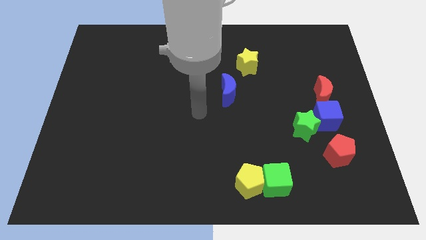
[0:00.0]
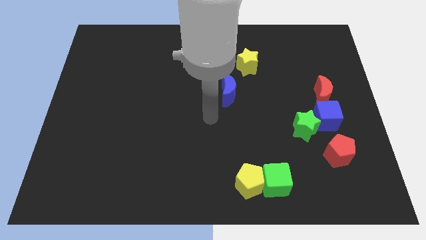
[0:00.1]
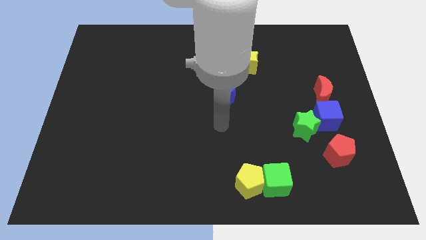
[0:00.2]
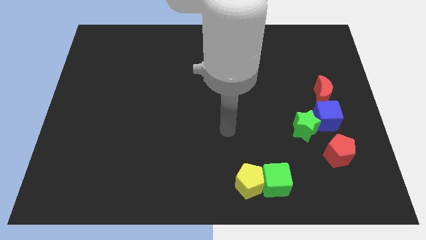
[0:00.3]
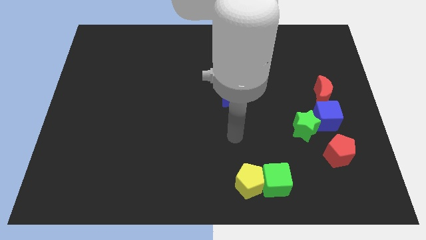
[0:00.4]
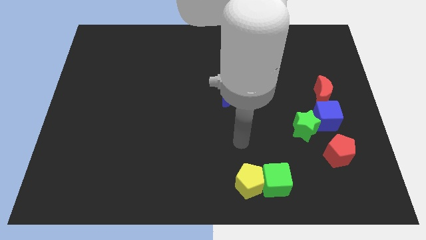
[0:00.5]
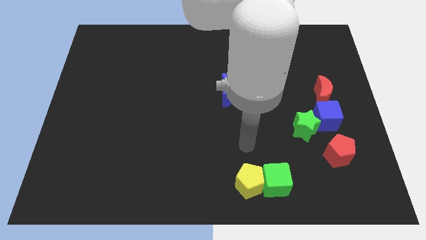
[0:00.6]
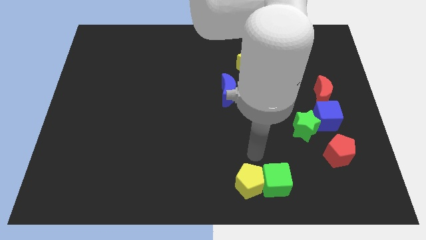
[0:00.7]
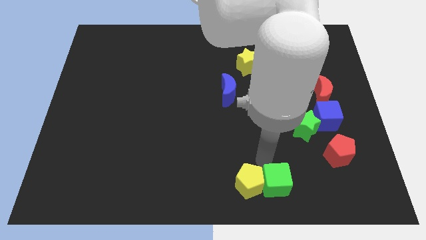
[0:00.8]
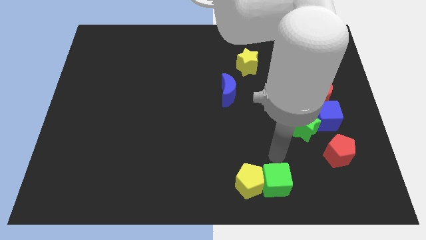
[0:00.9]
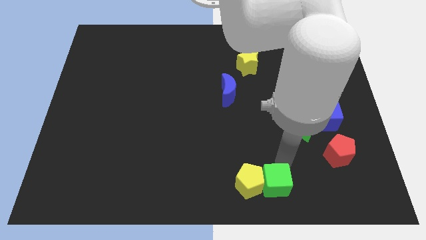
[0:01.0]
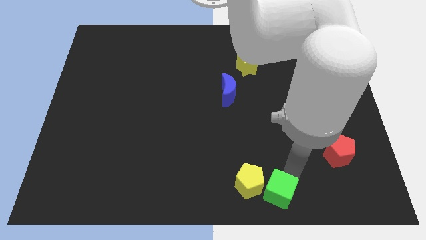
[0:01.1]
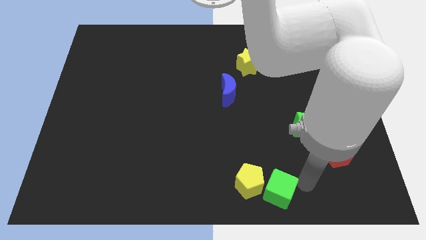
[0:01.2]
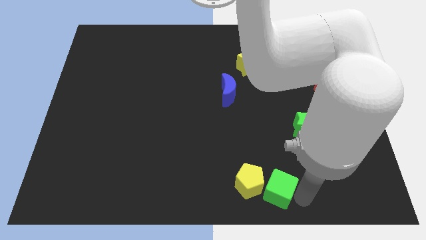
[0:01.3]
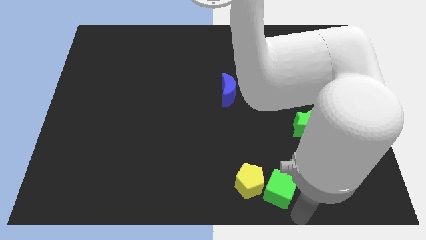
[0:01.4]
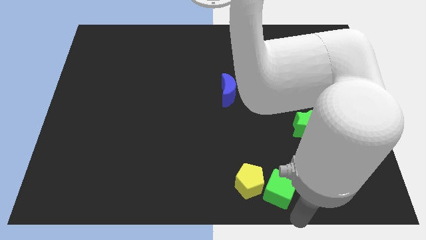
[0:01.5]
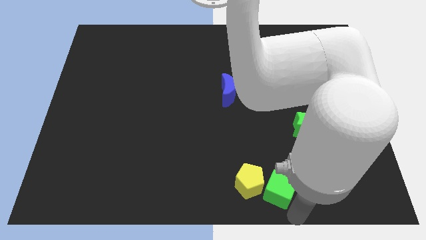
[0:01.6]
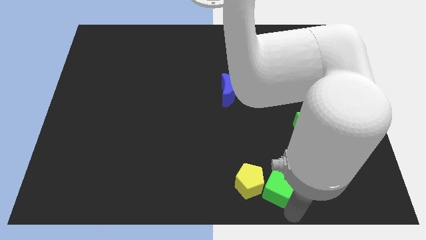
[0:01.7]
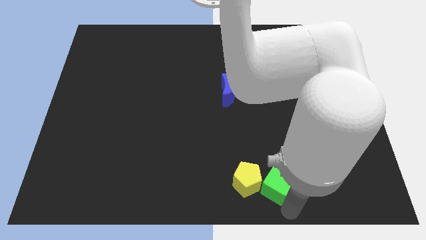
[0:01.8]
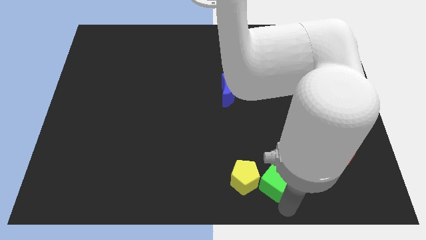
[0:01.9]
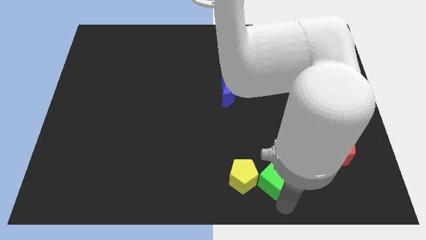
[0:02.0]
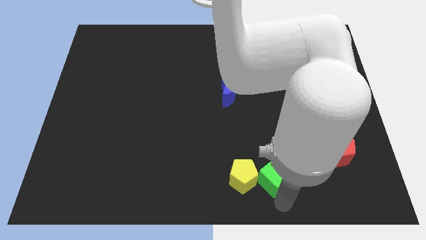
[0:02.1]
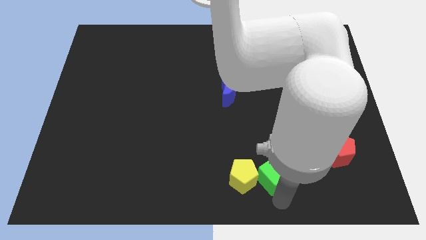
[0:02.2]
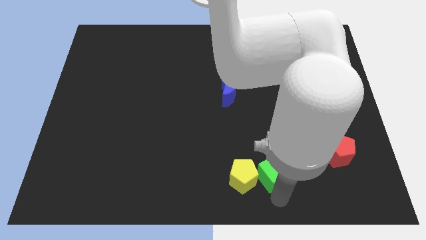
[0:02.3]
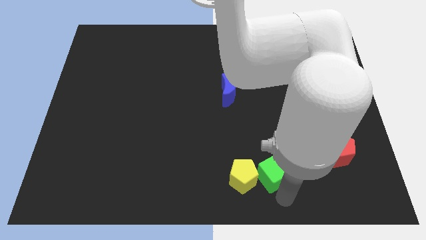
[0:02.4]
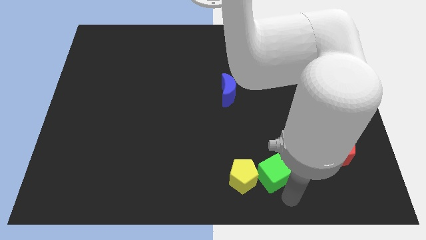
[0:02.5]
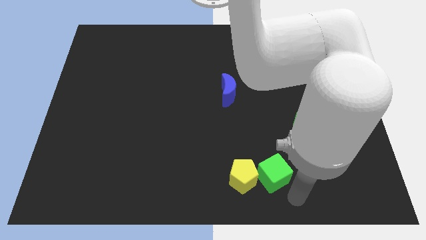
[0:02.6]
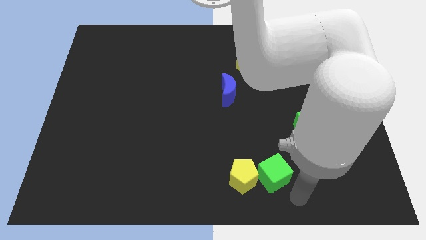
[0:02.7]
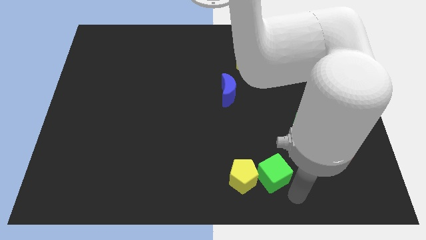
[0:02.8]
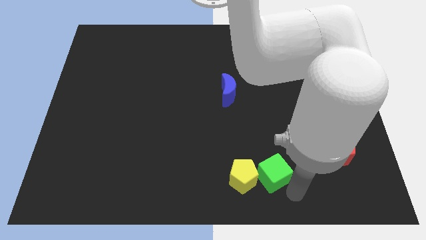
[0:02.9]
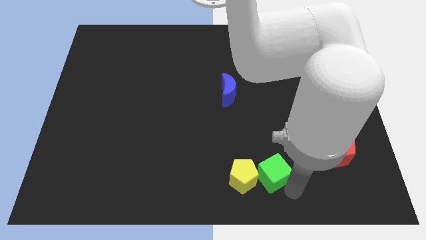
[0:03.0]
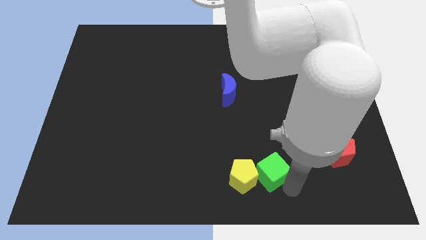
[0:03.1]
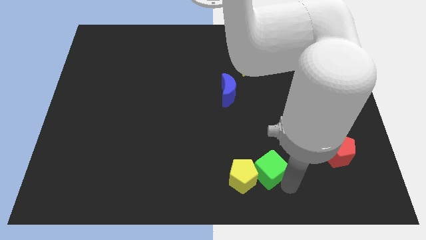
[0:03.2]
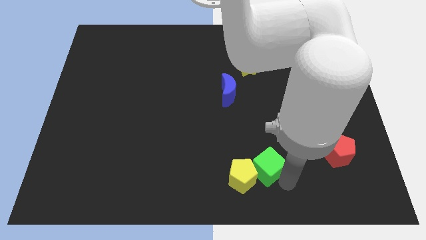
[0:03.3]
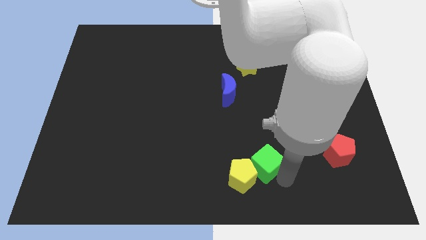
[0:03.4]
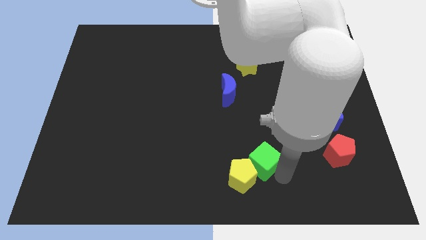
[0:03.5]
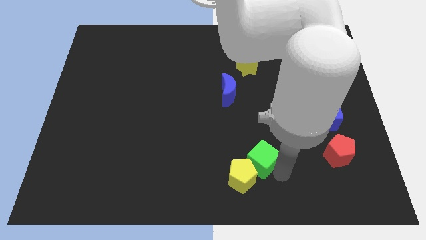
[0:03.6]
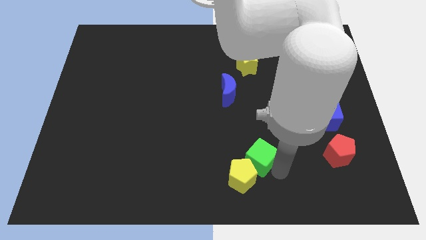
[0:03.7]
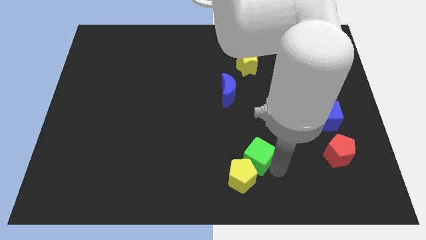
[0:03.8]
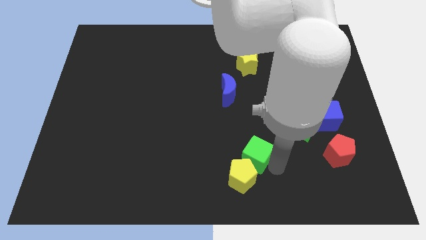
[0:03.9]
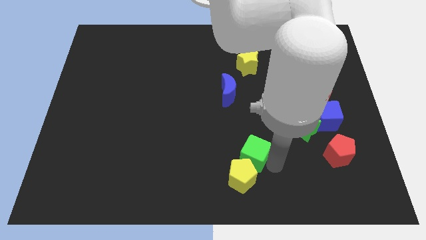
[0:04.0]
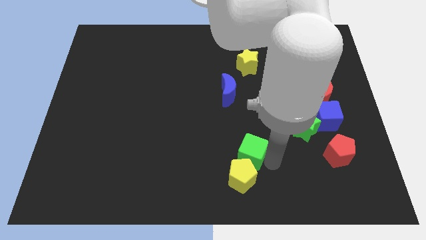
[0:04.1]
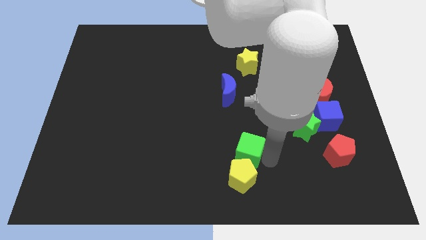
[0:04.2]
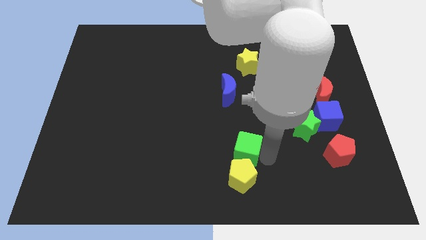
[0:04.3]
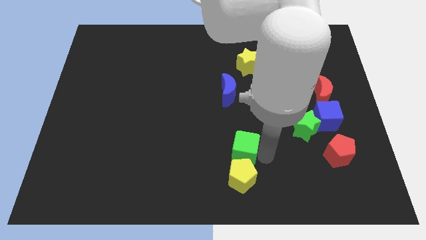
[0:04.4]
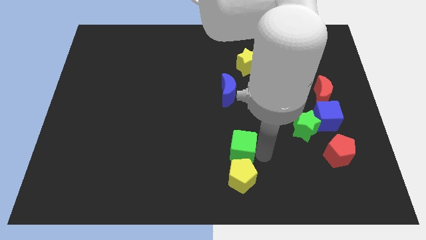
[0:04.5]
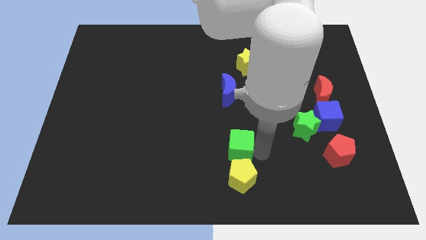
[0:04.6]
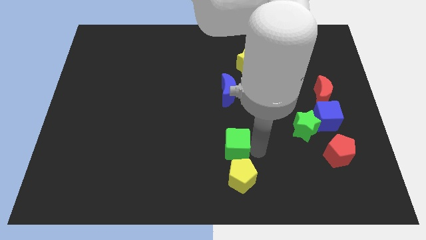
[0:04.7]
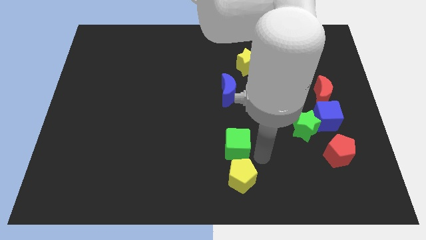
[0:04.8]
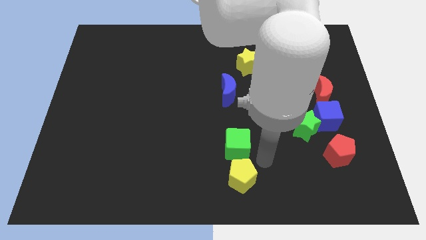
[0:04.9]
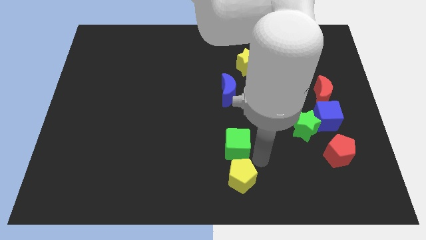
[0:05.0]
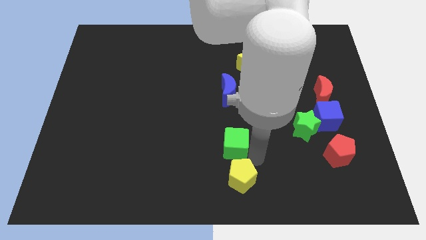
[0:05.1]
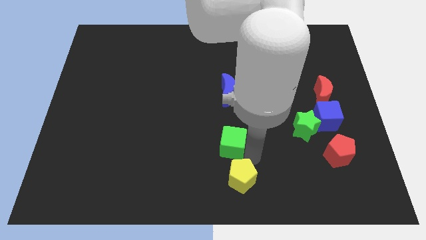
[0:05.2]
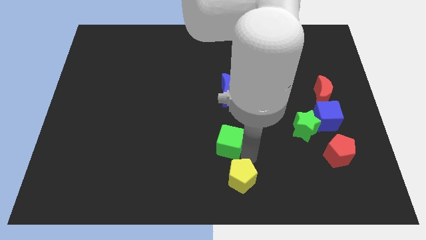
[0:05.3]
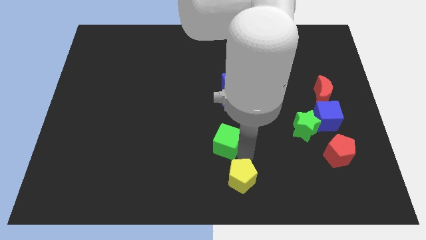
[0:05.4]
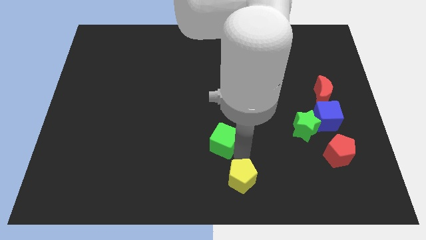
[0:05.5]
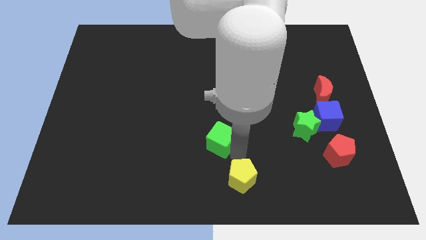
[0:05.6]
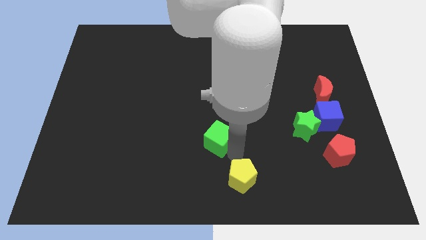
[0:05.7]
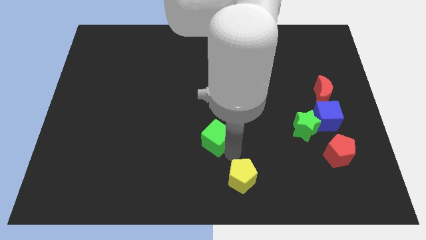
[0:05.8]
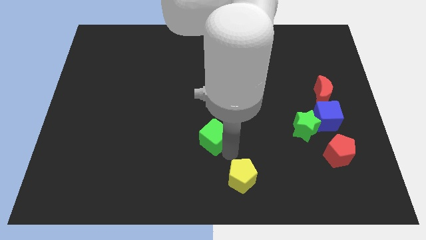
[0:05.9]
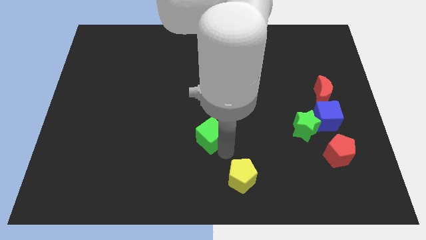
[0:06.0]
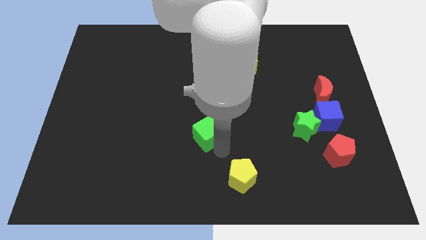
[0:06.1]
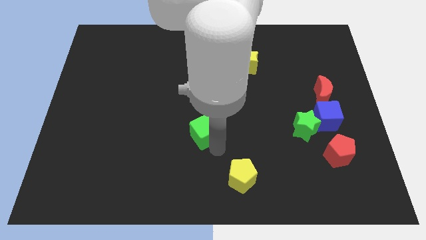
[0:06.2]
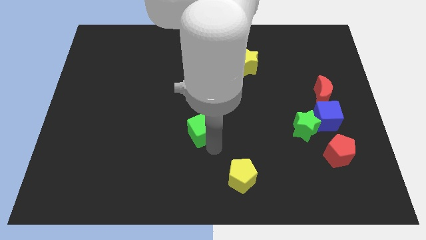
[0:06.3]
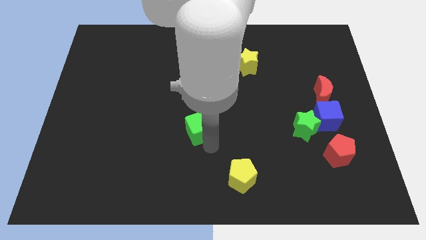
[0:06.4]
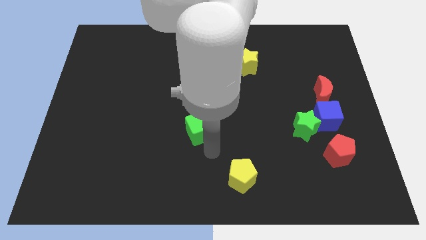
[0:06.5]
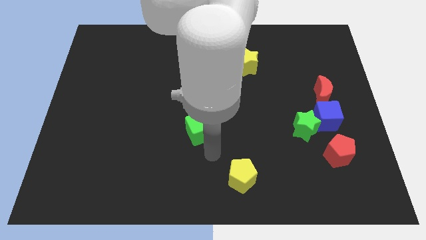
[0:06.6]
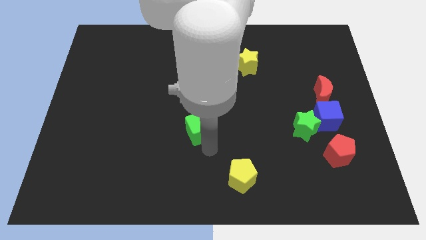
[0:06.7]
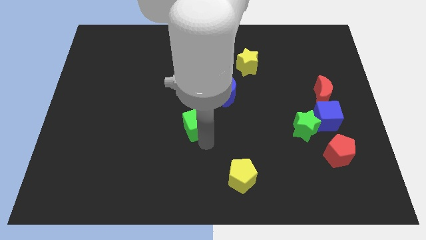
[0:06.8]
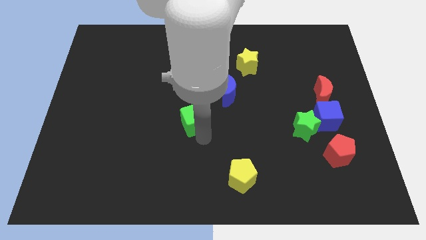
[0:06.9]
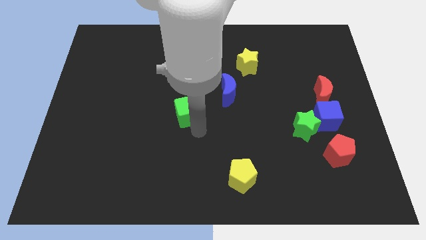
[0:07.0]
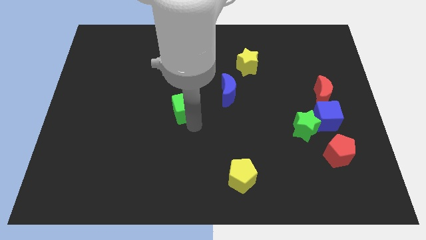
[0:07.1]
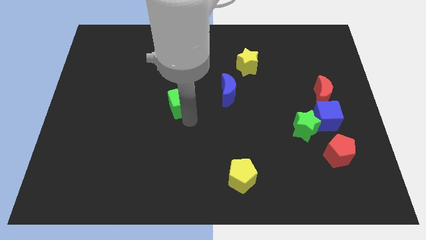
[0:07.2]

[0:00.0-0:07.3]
move the green cube just left of the blue moon
